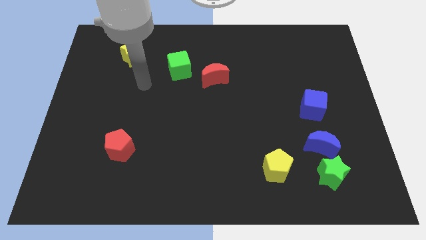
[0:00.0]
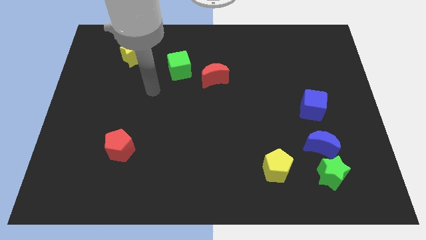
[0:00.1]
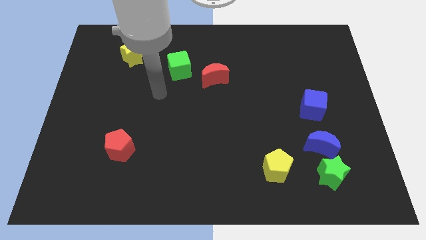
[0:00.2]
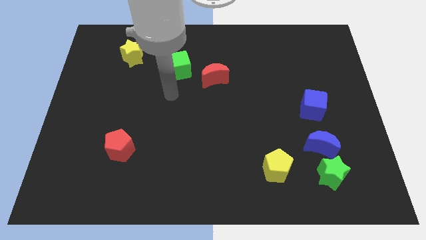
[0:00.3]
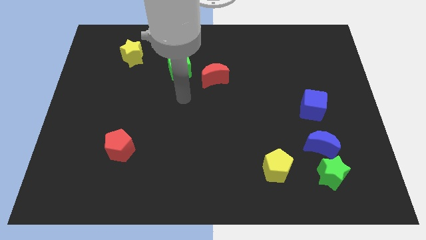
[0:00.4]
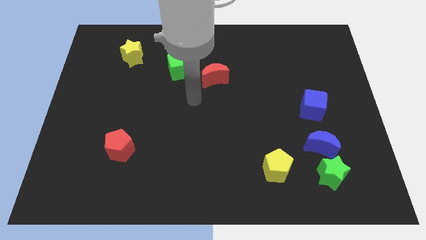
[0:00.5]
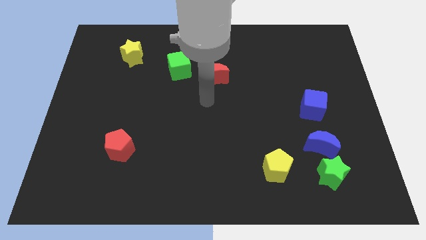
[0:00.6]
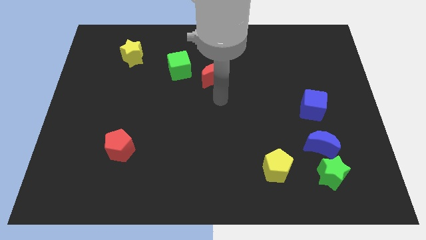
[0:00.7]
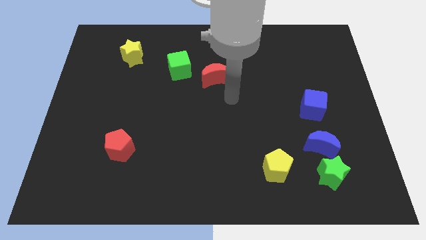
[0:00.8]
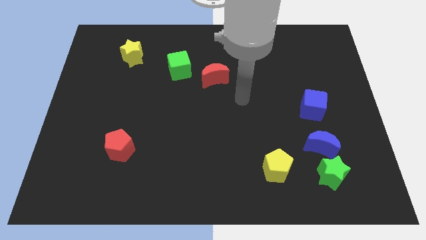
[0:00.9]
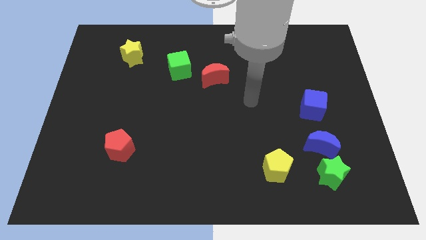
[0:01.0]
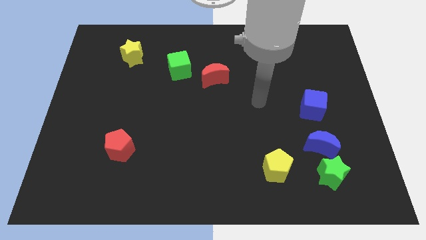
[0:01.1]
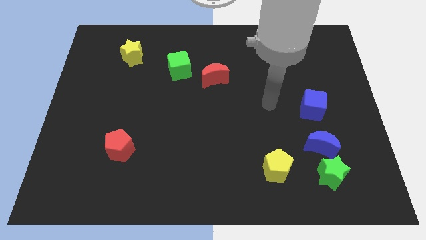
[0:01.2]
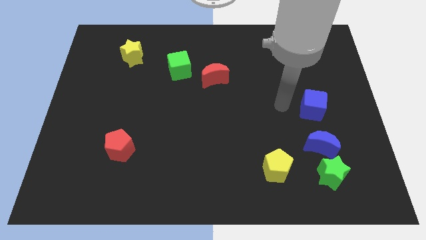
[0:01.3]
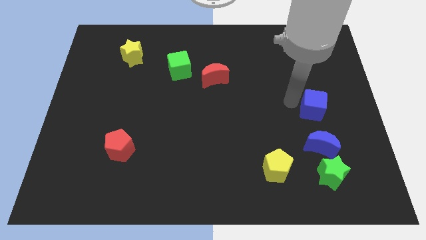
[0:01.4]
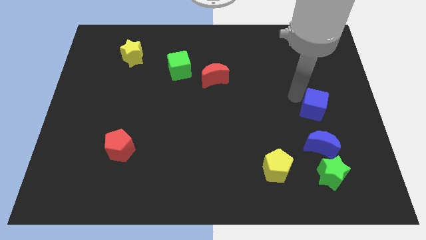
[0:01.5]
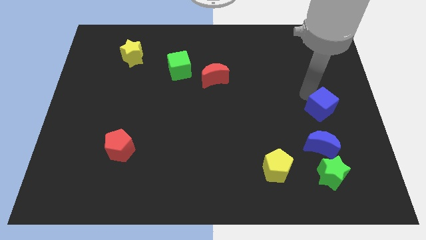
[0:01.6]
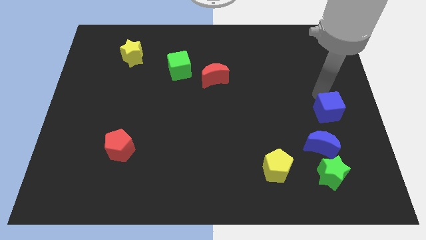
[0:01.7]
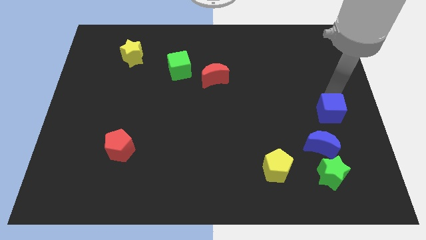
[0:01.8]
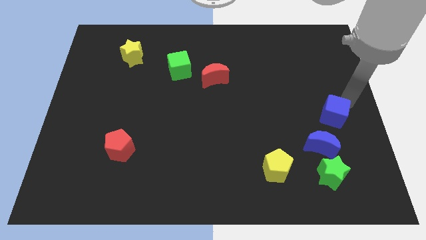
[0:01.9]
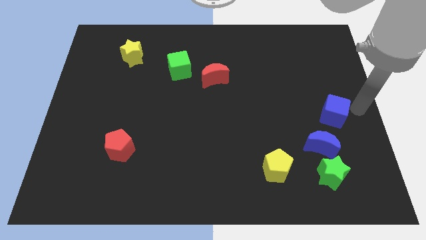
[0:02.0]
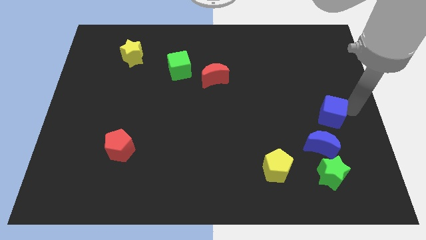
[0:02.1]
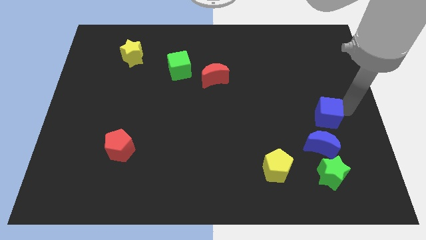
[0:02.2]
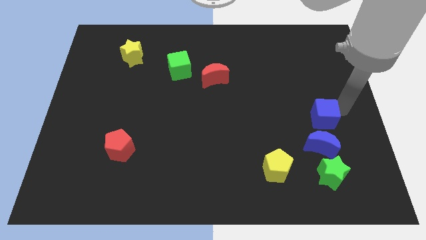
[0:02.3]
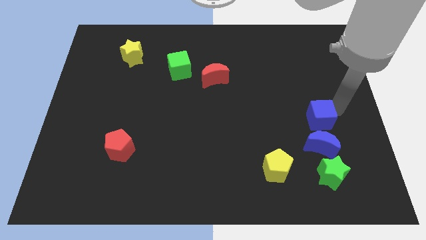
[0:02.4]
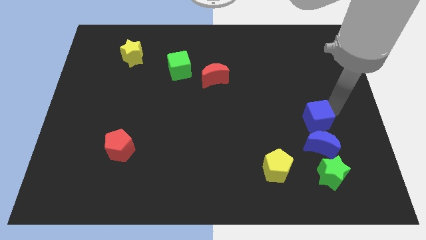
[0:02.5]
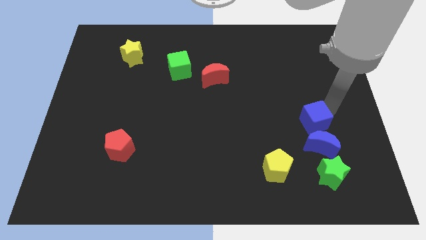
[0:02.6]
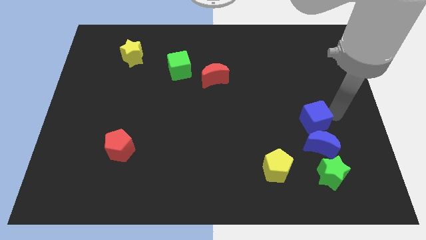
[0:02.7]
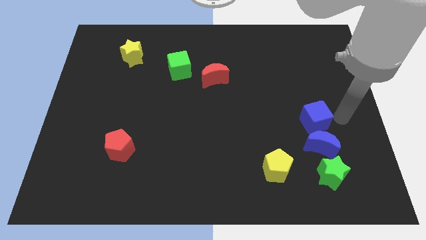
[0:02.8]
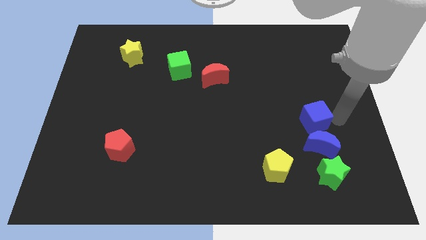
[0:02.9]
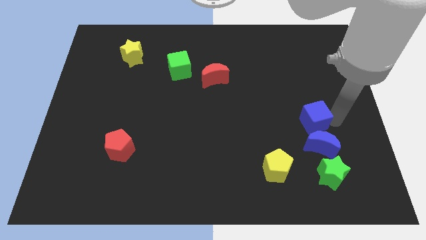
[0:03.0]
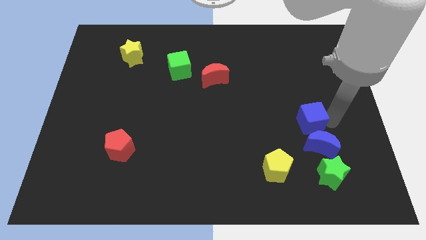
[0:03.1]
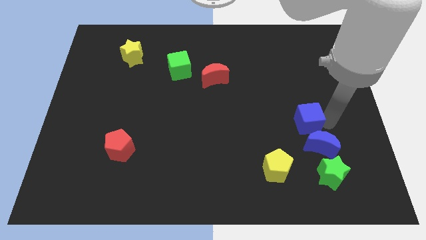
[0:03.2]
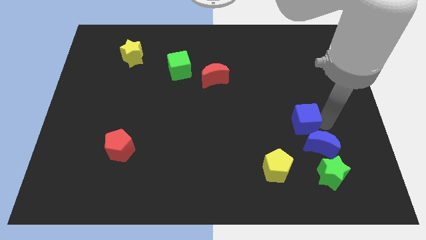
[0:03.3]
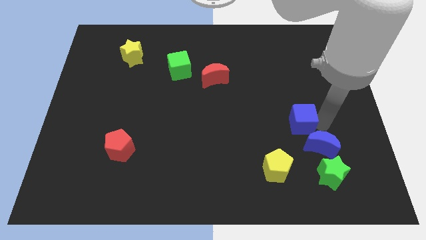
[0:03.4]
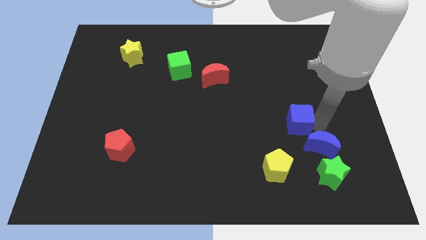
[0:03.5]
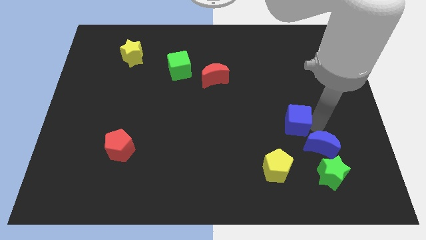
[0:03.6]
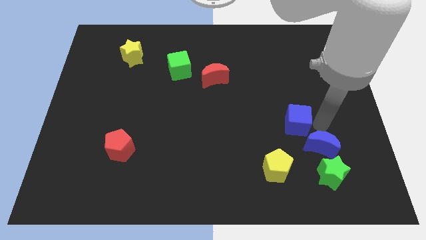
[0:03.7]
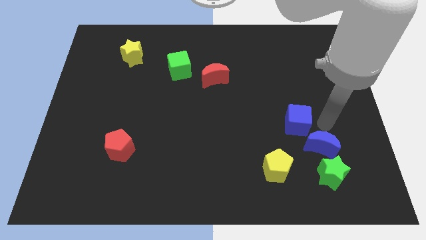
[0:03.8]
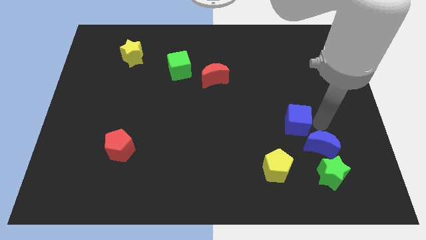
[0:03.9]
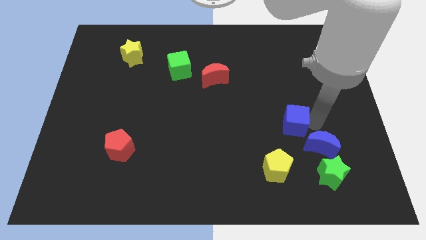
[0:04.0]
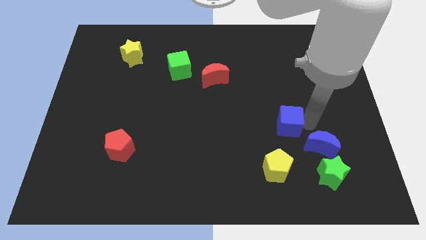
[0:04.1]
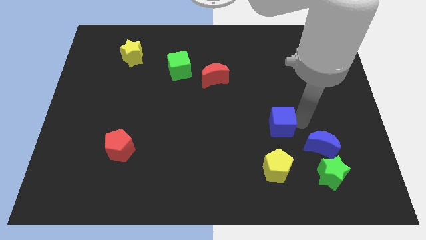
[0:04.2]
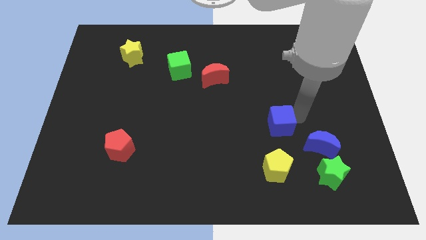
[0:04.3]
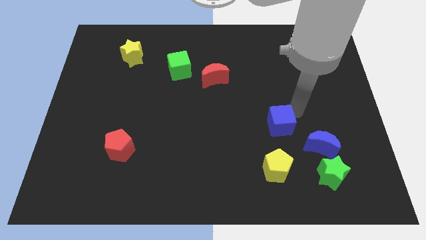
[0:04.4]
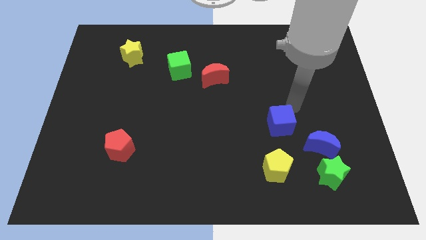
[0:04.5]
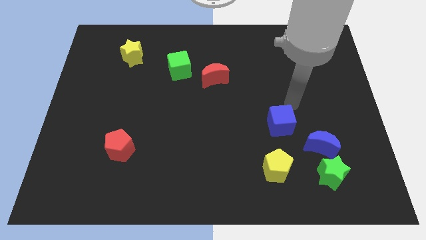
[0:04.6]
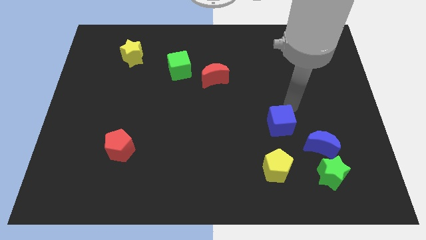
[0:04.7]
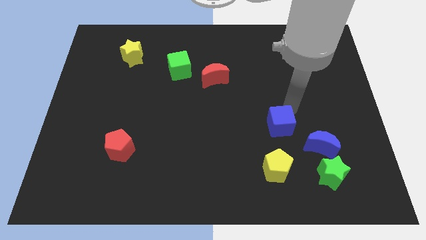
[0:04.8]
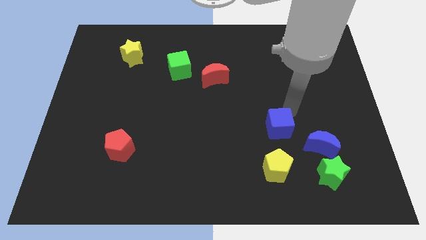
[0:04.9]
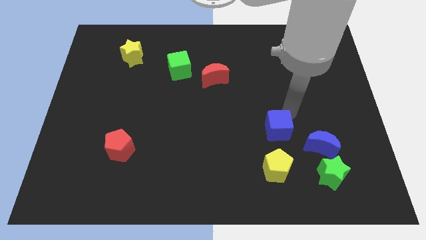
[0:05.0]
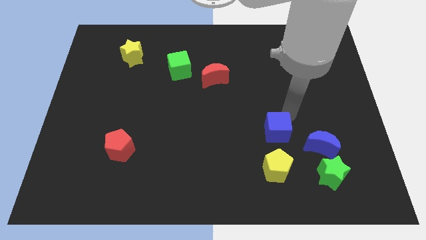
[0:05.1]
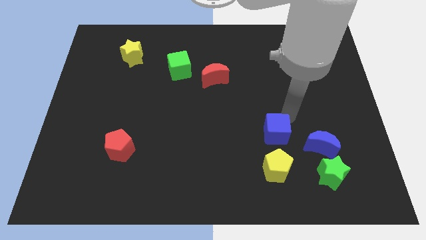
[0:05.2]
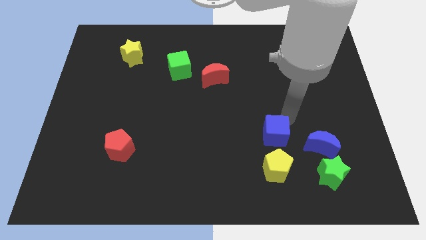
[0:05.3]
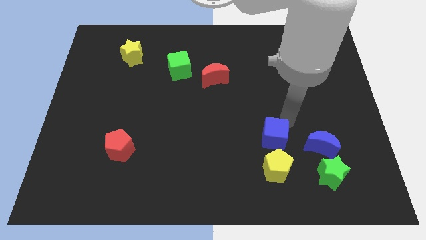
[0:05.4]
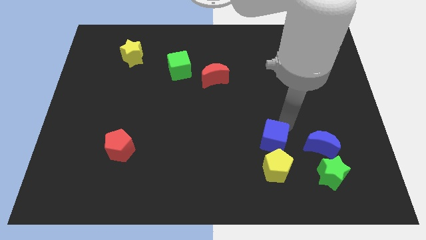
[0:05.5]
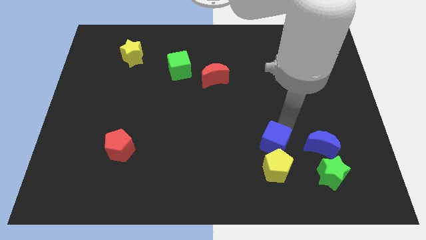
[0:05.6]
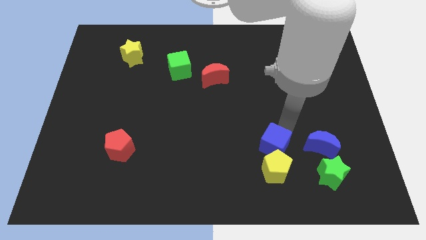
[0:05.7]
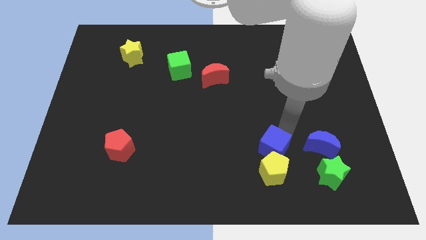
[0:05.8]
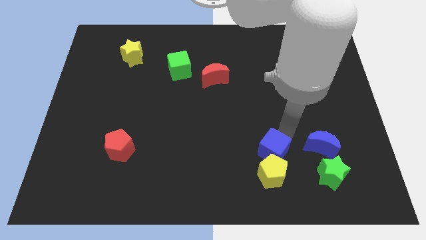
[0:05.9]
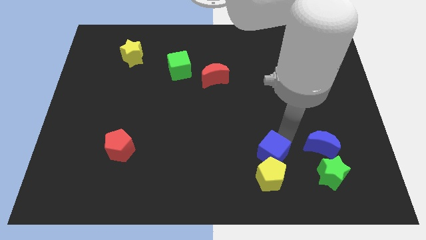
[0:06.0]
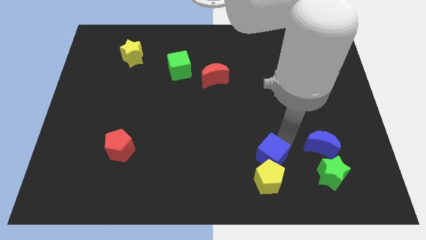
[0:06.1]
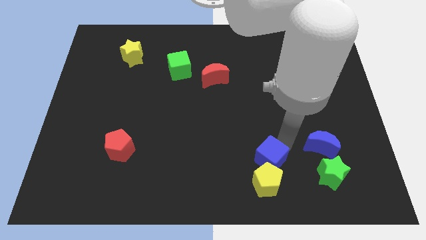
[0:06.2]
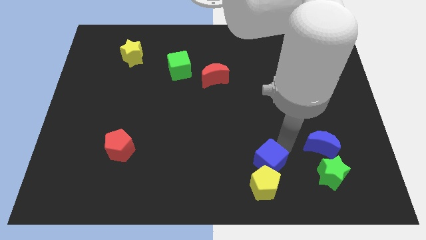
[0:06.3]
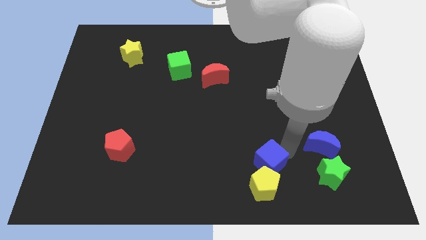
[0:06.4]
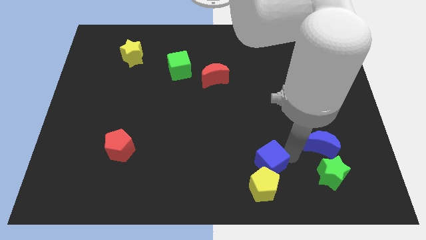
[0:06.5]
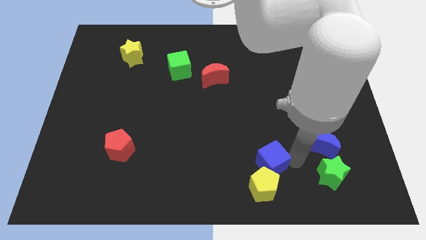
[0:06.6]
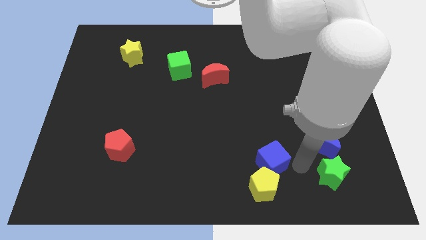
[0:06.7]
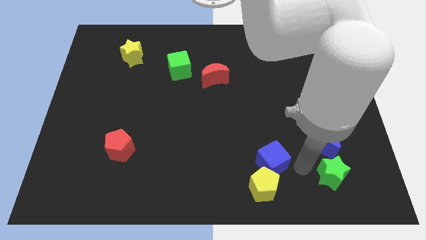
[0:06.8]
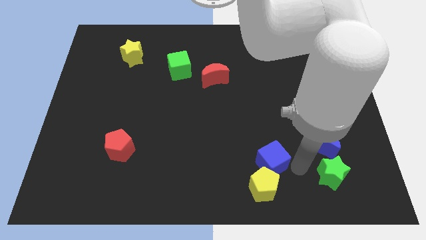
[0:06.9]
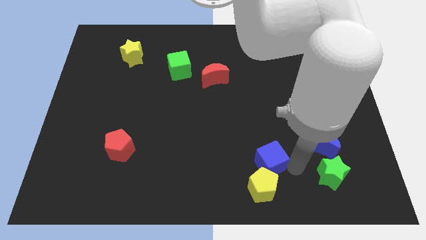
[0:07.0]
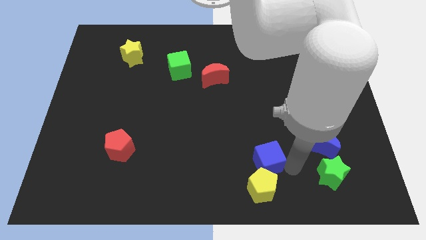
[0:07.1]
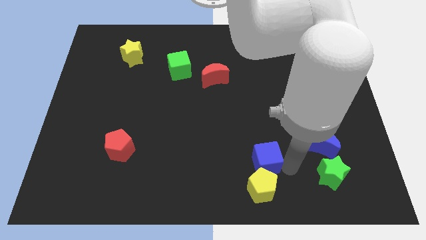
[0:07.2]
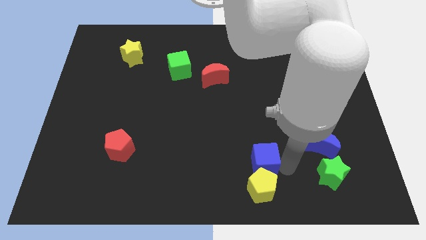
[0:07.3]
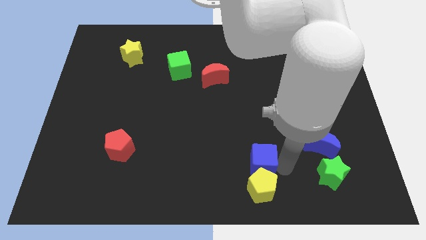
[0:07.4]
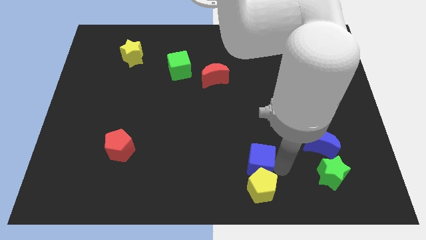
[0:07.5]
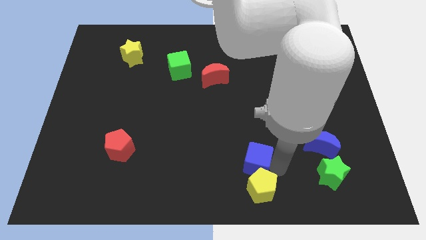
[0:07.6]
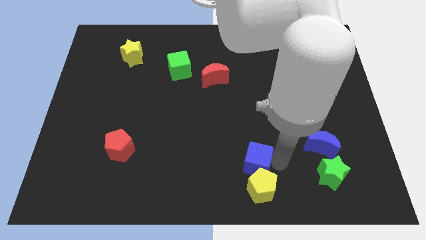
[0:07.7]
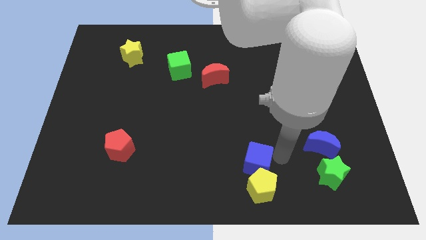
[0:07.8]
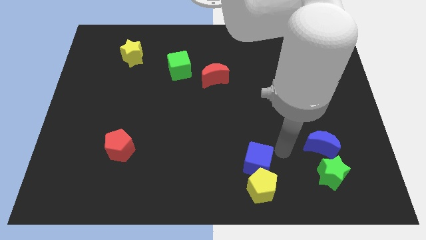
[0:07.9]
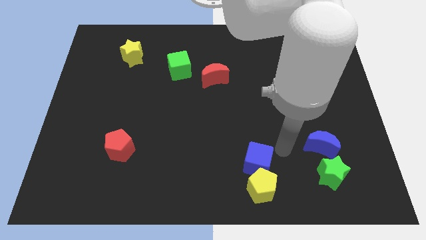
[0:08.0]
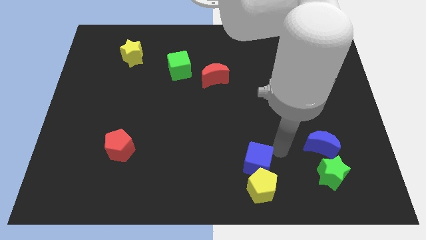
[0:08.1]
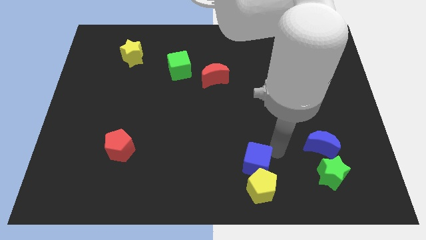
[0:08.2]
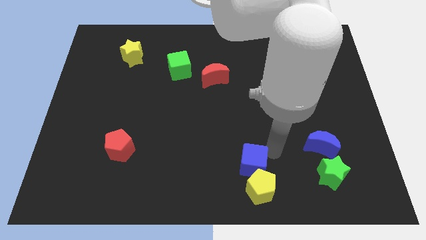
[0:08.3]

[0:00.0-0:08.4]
put the blue cube to the bottom side
